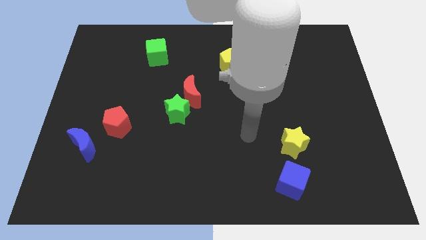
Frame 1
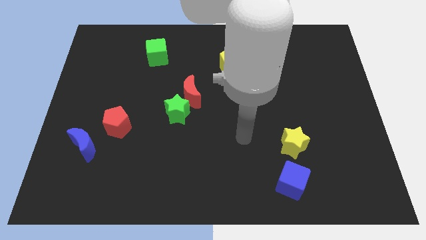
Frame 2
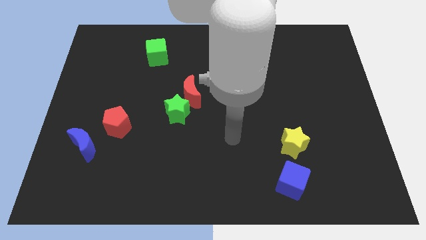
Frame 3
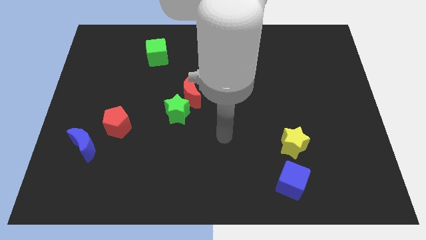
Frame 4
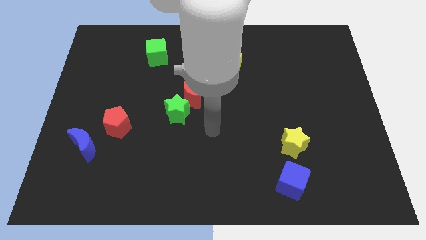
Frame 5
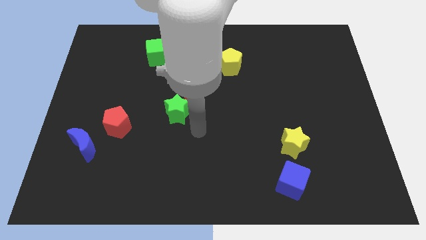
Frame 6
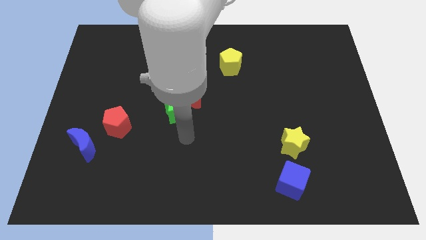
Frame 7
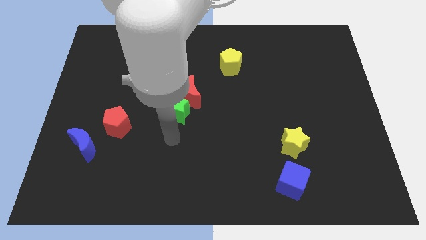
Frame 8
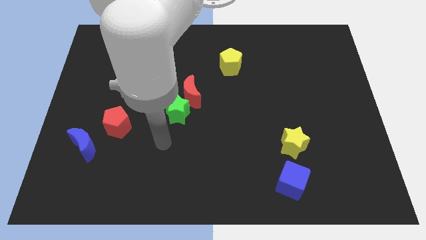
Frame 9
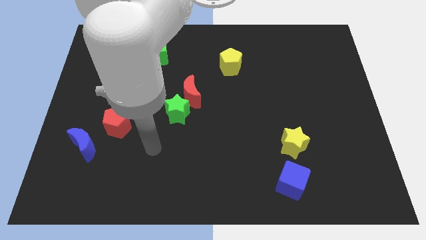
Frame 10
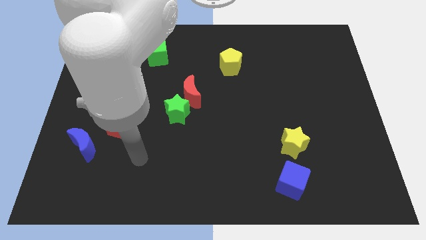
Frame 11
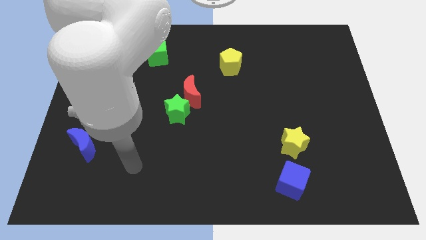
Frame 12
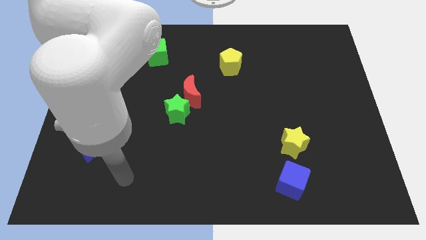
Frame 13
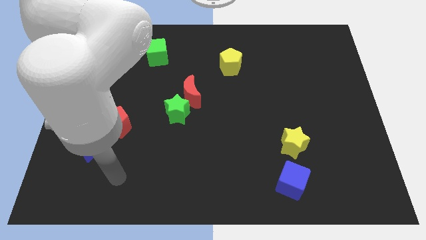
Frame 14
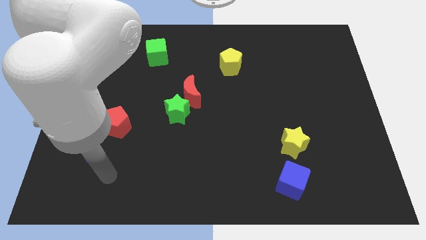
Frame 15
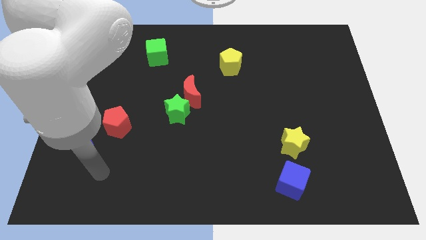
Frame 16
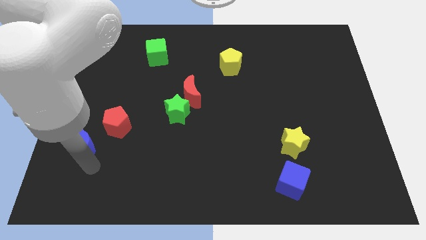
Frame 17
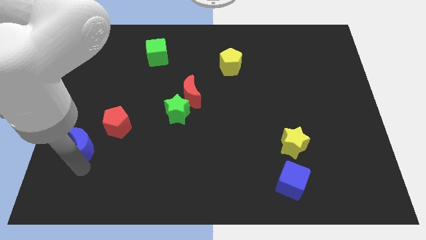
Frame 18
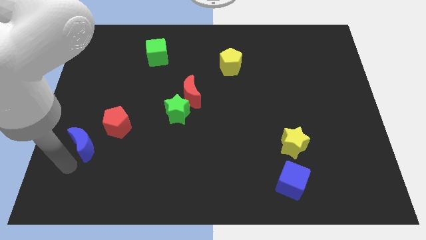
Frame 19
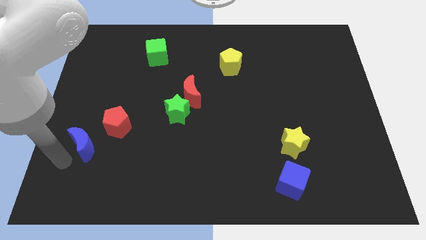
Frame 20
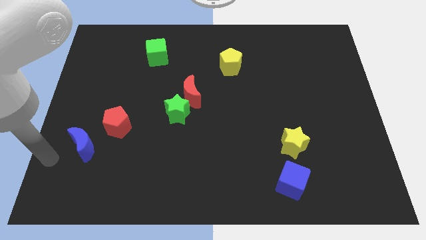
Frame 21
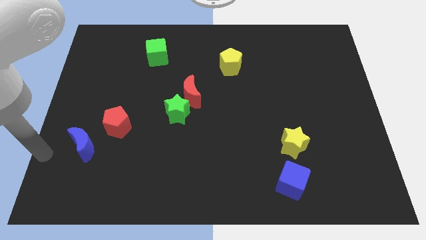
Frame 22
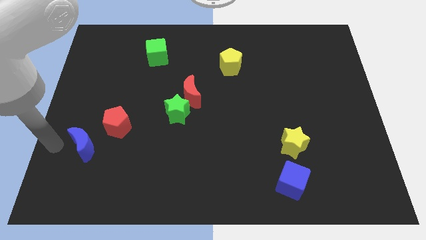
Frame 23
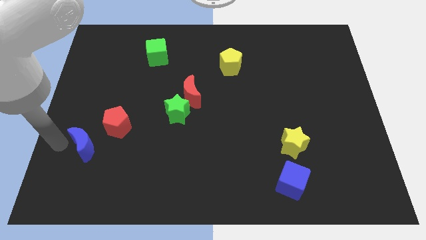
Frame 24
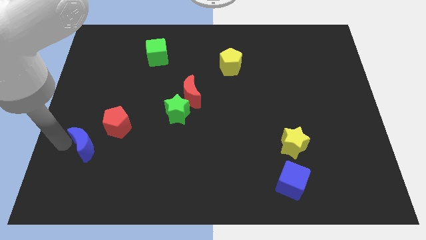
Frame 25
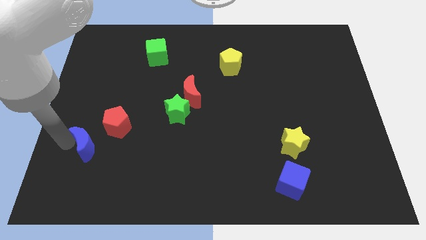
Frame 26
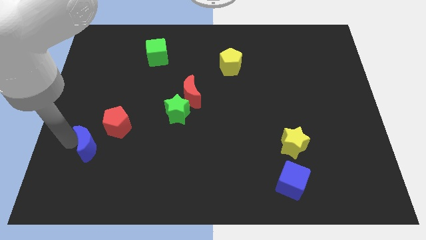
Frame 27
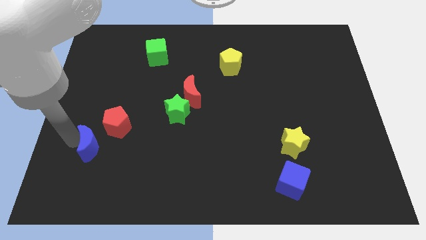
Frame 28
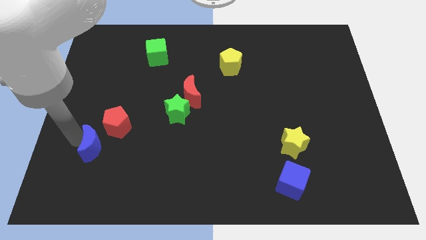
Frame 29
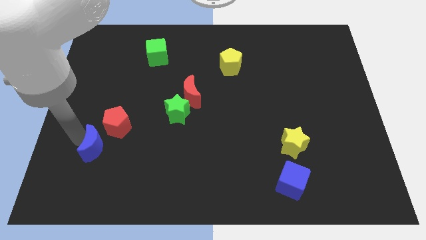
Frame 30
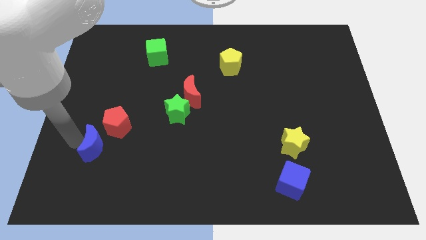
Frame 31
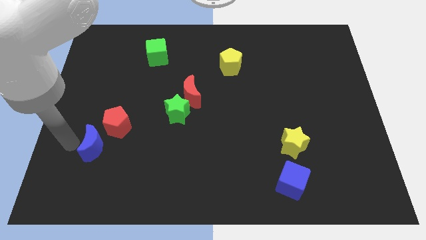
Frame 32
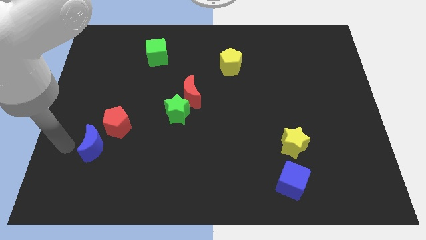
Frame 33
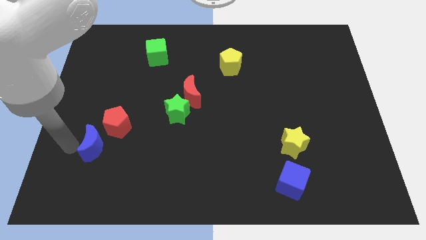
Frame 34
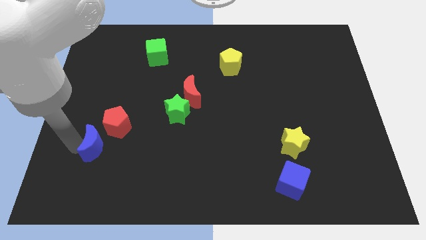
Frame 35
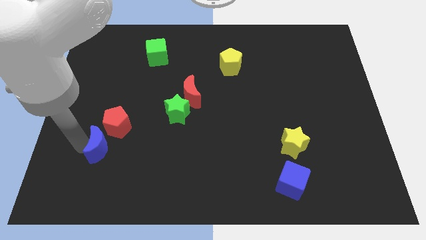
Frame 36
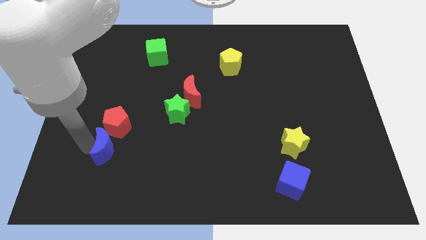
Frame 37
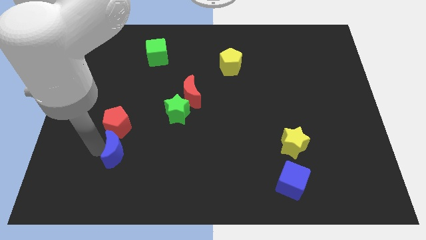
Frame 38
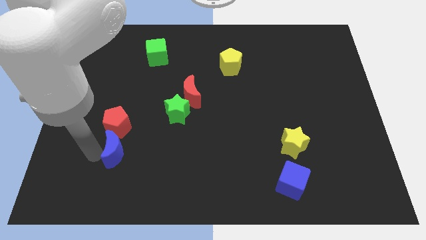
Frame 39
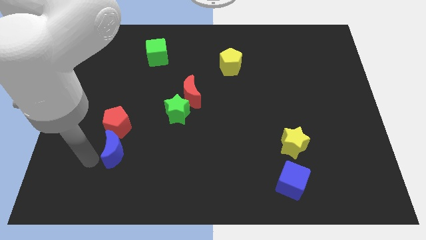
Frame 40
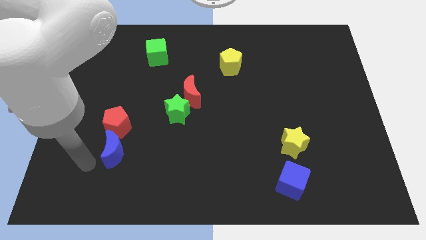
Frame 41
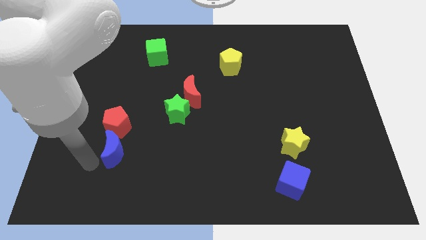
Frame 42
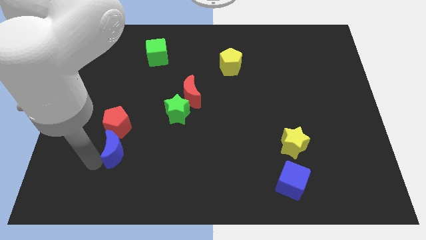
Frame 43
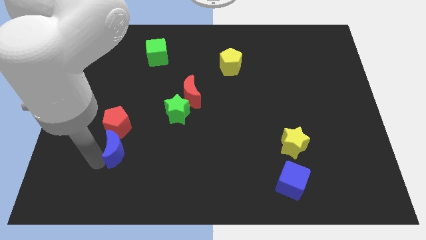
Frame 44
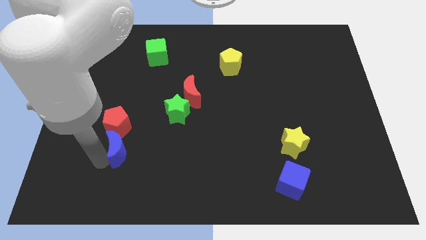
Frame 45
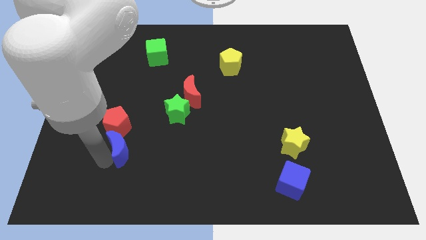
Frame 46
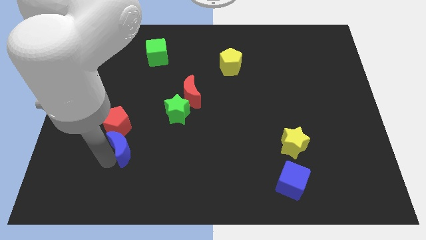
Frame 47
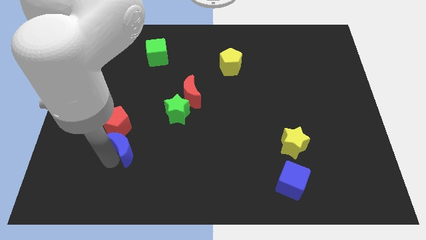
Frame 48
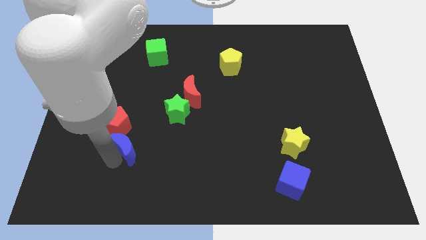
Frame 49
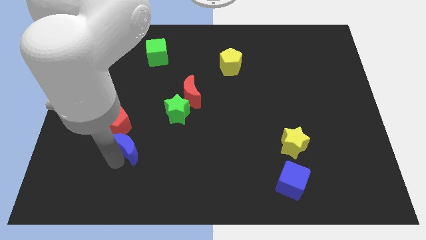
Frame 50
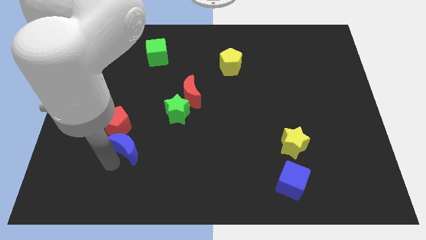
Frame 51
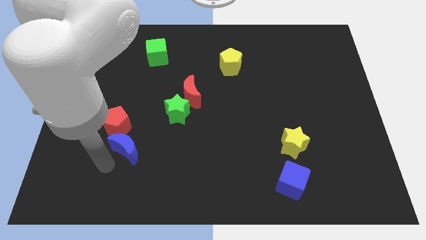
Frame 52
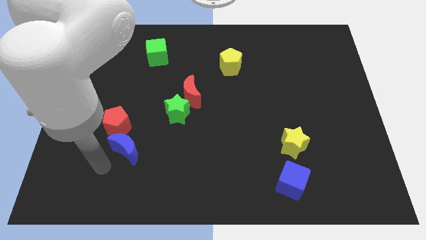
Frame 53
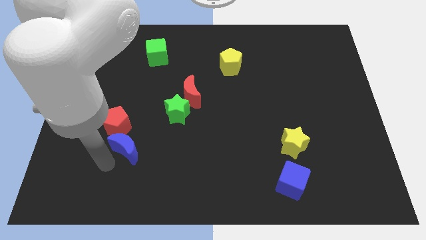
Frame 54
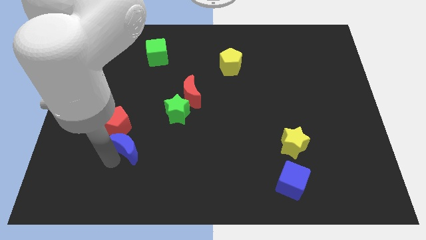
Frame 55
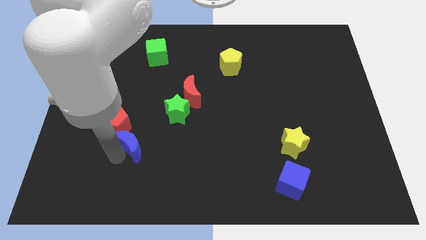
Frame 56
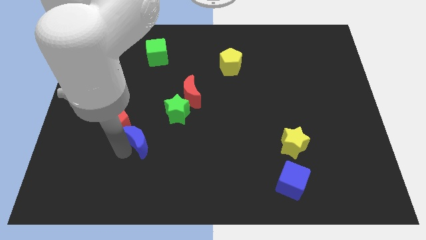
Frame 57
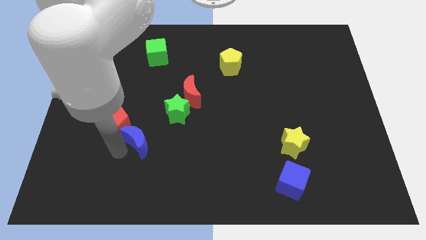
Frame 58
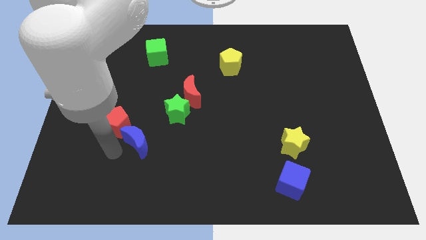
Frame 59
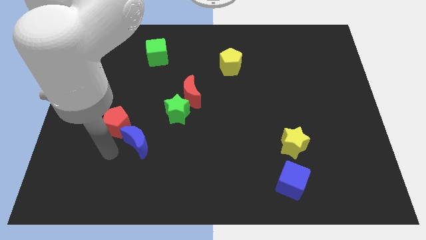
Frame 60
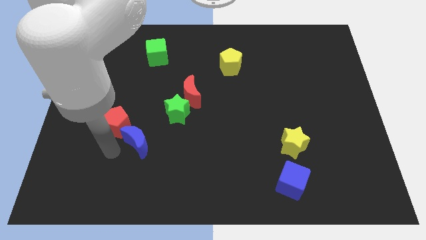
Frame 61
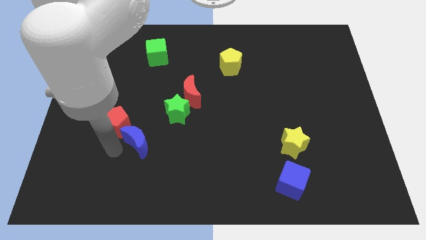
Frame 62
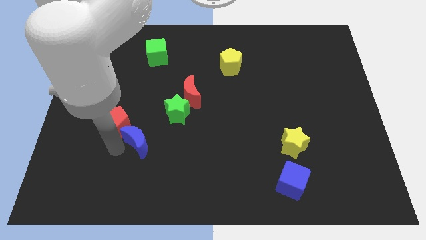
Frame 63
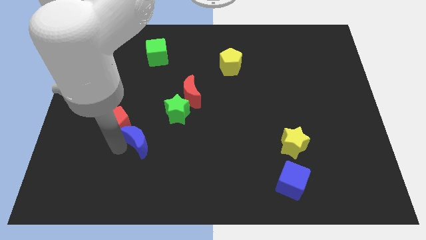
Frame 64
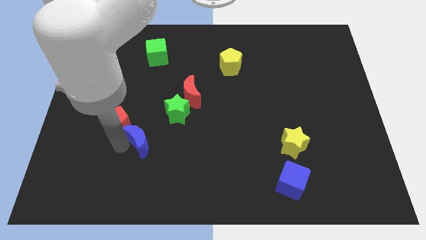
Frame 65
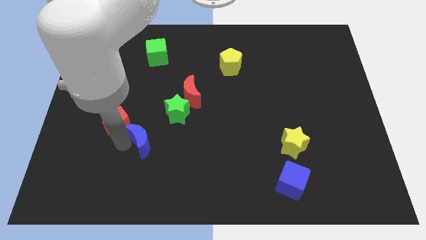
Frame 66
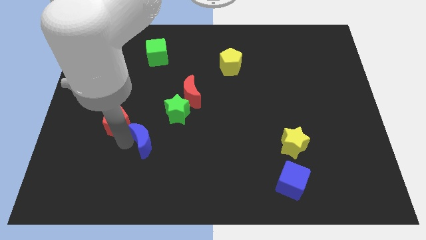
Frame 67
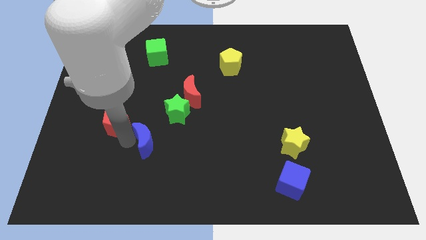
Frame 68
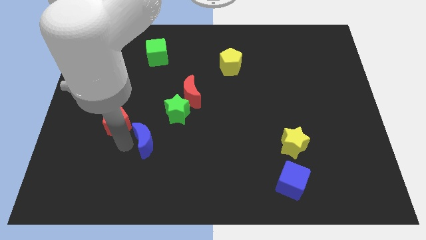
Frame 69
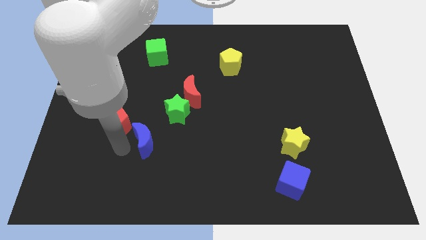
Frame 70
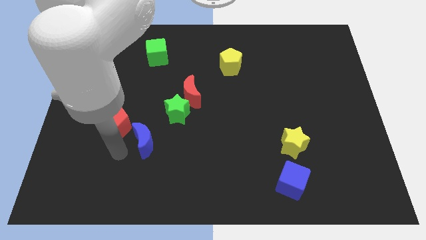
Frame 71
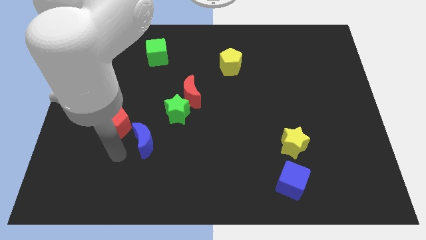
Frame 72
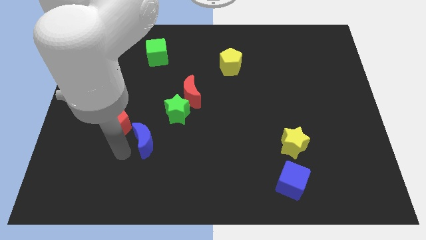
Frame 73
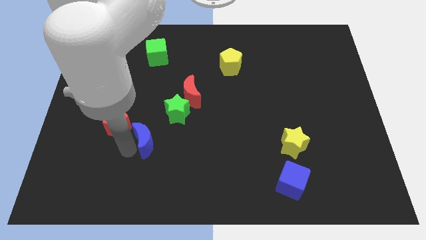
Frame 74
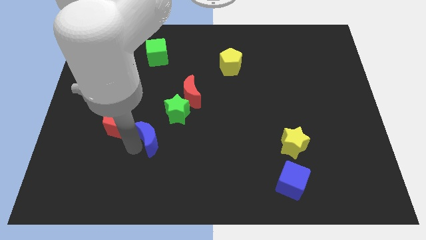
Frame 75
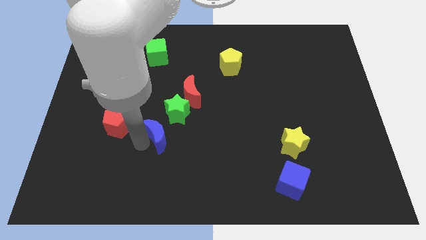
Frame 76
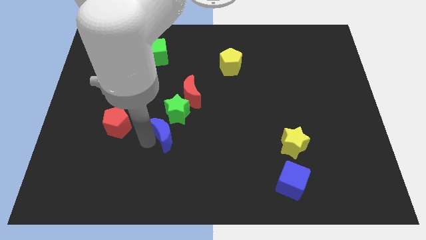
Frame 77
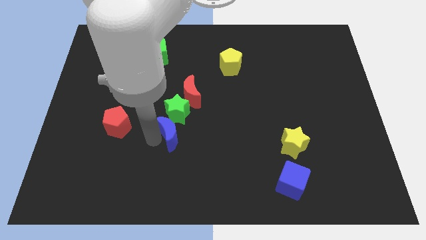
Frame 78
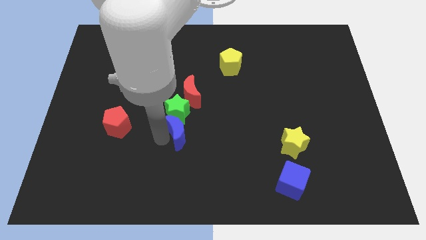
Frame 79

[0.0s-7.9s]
push the blue moon to the middle of the board
